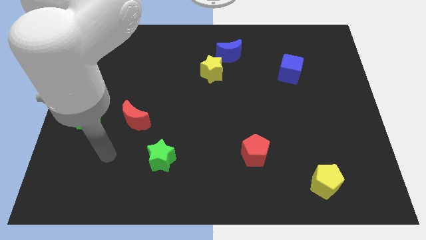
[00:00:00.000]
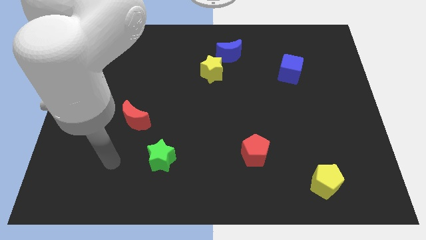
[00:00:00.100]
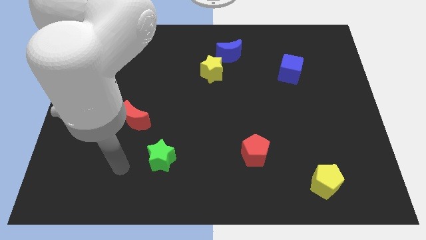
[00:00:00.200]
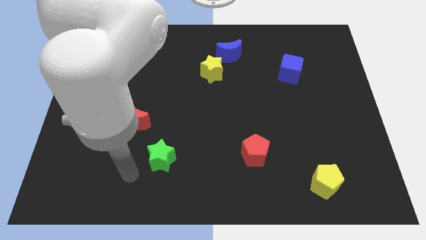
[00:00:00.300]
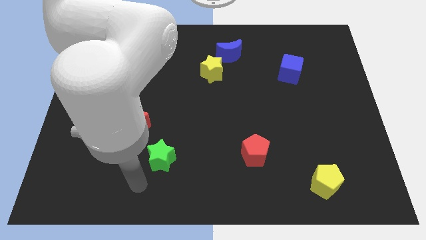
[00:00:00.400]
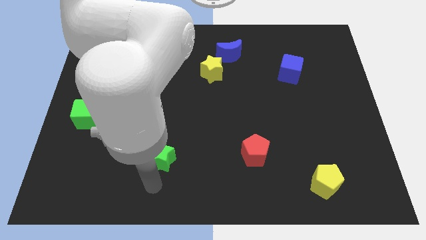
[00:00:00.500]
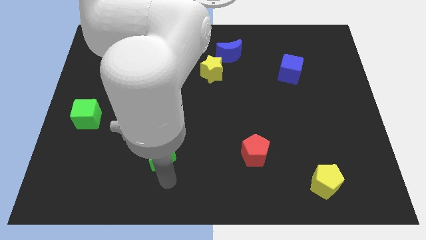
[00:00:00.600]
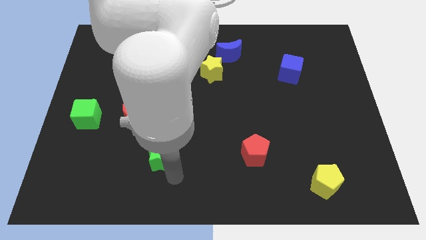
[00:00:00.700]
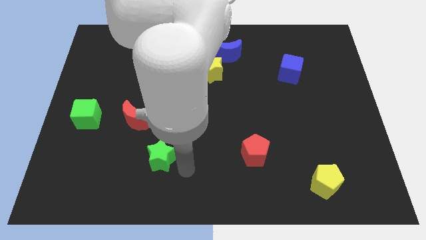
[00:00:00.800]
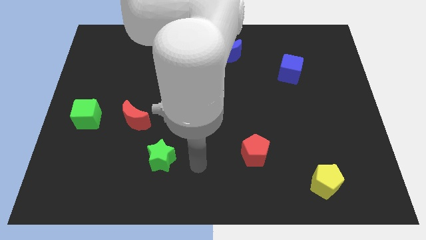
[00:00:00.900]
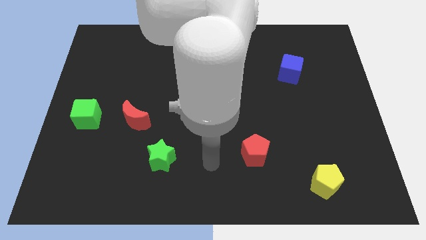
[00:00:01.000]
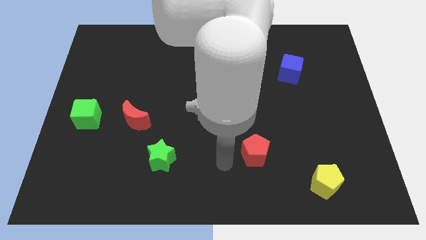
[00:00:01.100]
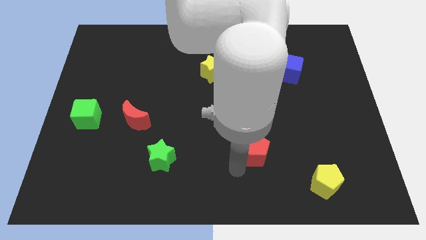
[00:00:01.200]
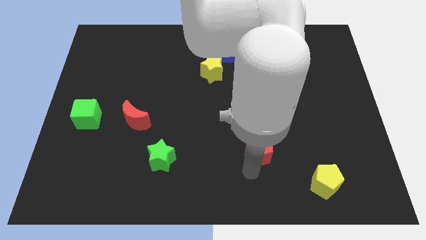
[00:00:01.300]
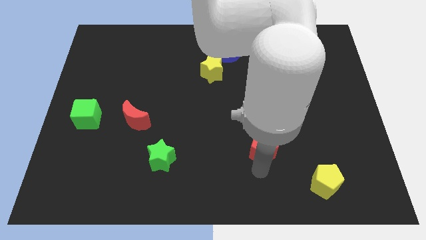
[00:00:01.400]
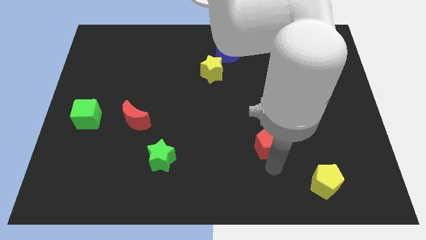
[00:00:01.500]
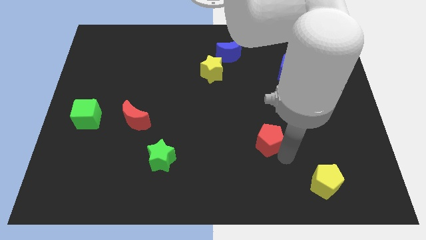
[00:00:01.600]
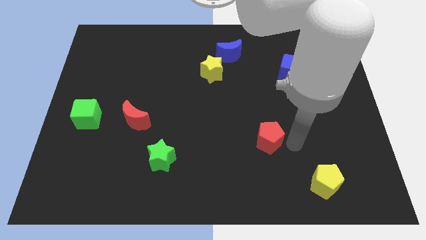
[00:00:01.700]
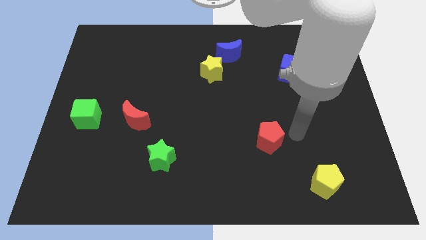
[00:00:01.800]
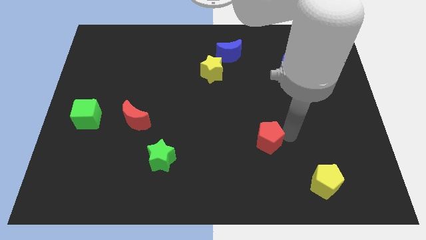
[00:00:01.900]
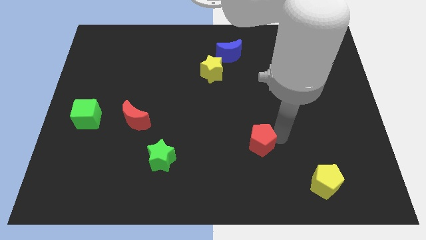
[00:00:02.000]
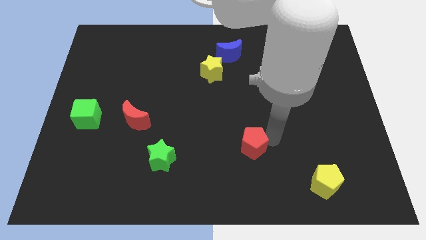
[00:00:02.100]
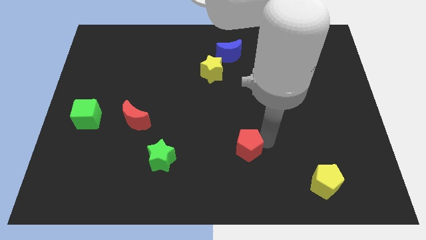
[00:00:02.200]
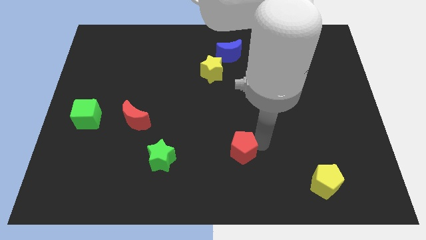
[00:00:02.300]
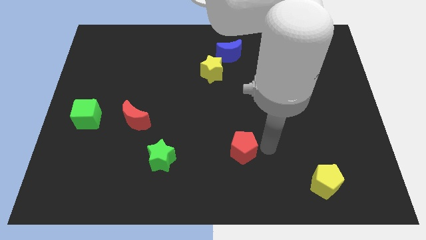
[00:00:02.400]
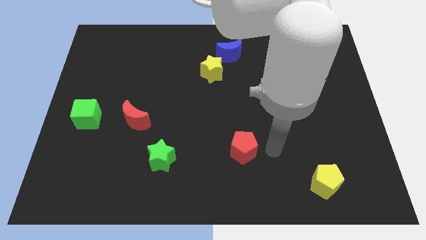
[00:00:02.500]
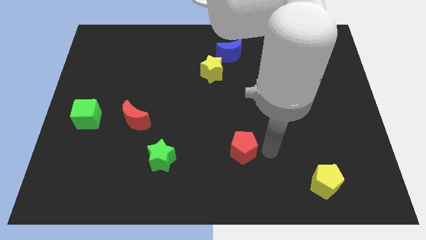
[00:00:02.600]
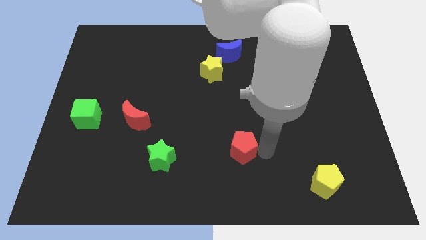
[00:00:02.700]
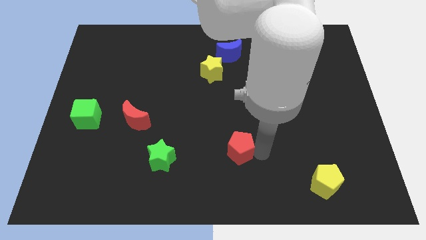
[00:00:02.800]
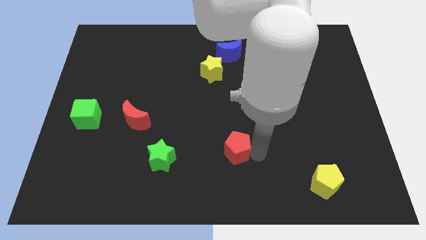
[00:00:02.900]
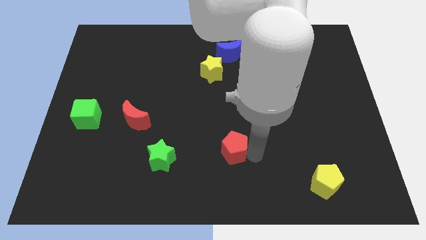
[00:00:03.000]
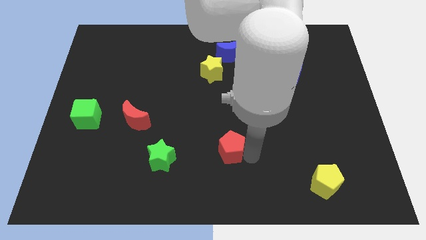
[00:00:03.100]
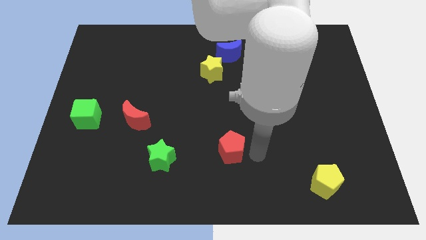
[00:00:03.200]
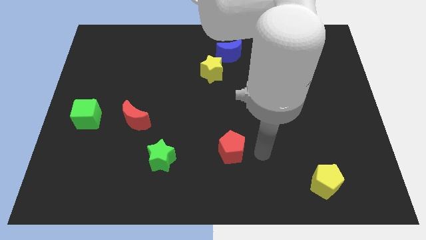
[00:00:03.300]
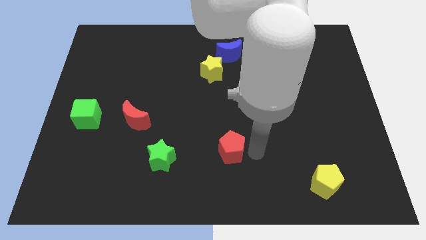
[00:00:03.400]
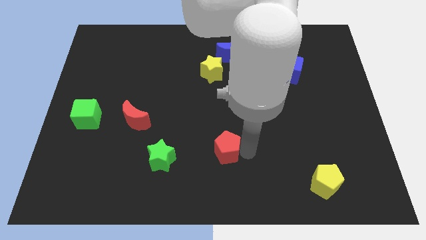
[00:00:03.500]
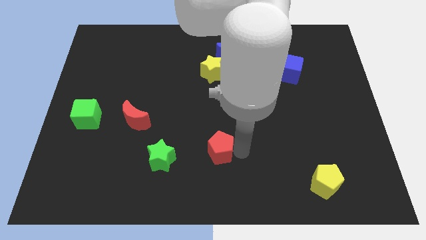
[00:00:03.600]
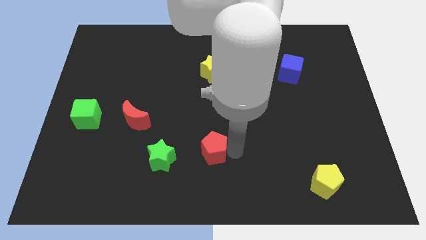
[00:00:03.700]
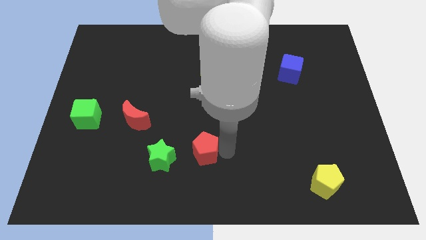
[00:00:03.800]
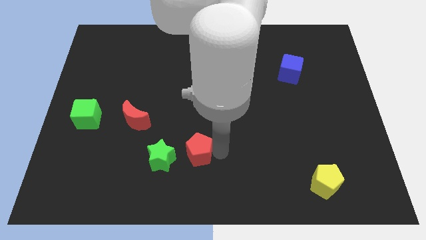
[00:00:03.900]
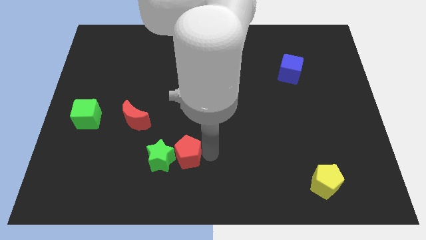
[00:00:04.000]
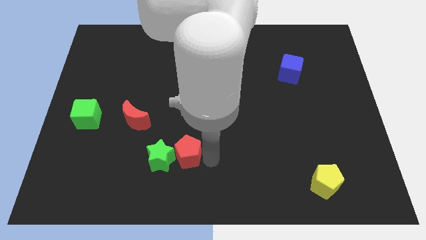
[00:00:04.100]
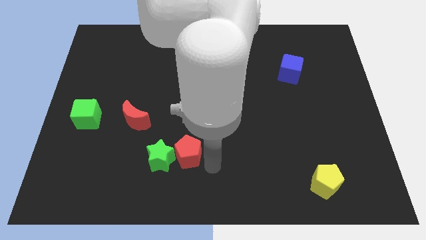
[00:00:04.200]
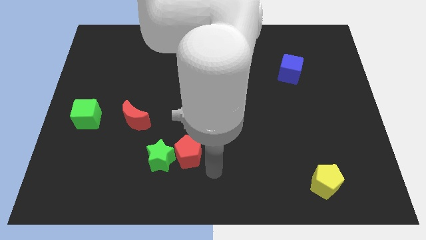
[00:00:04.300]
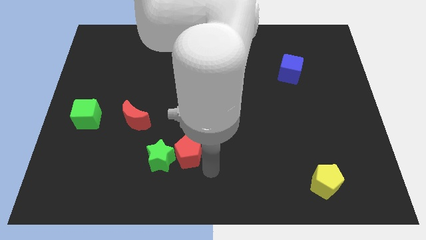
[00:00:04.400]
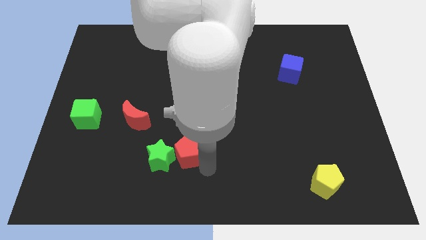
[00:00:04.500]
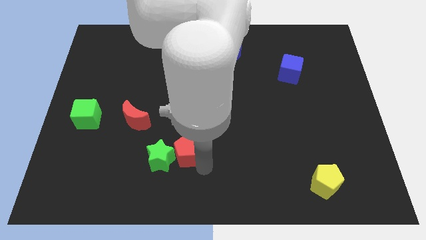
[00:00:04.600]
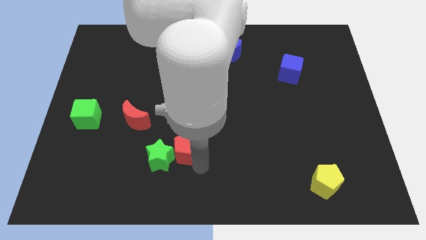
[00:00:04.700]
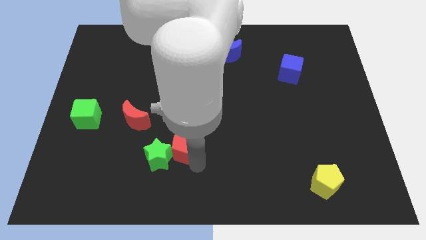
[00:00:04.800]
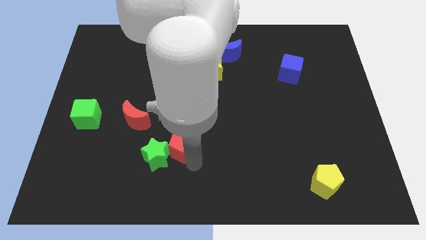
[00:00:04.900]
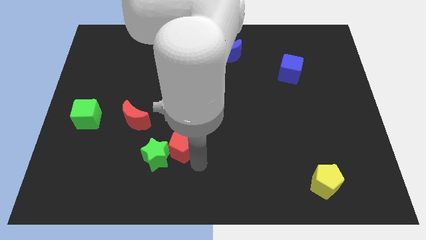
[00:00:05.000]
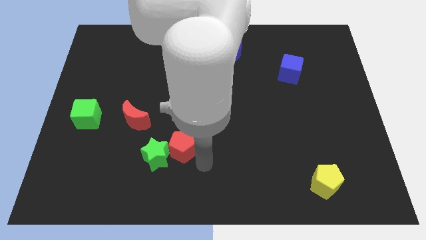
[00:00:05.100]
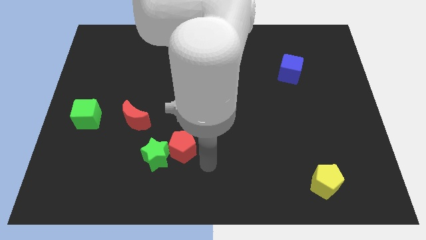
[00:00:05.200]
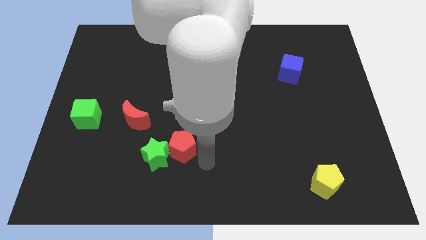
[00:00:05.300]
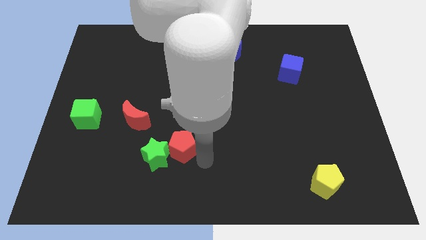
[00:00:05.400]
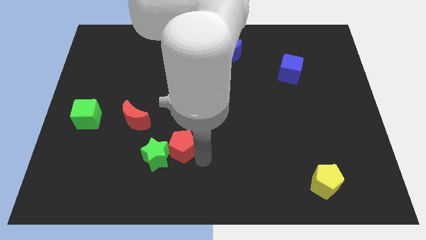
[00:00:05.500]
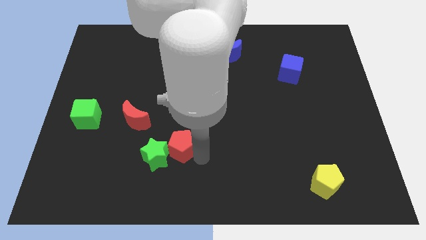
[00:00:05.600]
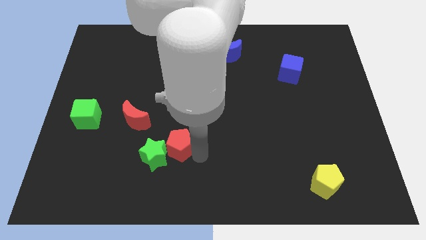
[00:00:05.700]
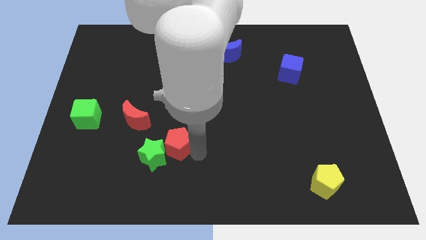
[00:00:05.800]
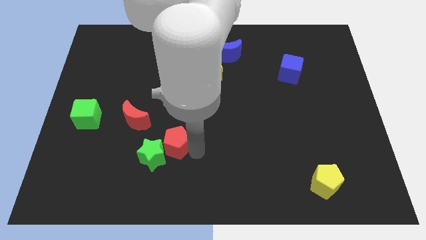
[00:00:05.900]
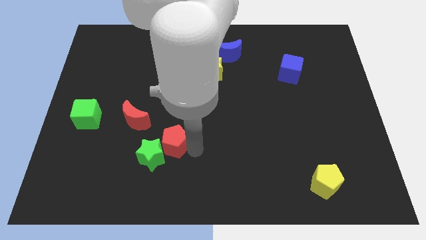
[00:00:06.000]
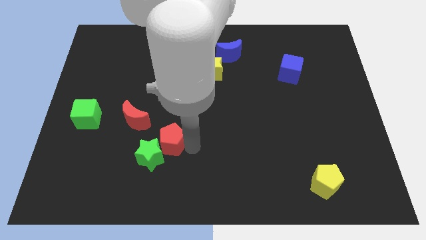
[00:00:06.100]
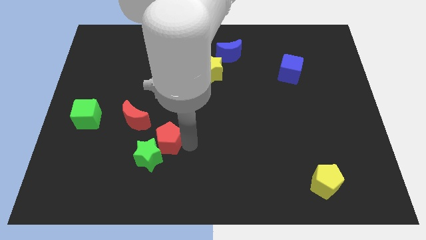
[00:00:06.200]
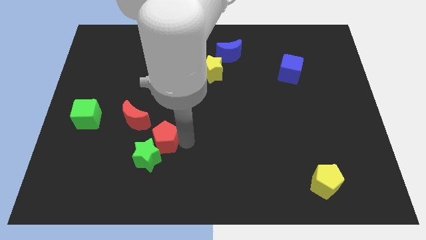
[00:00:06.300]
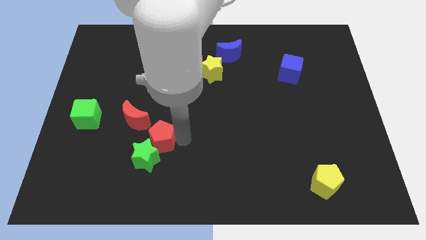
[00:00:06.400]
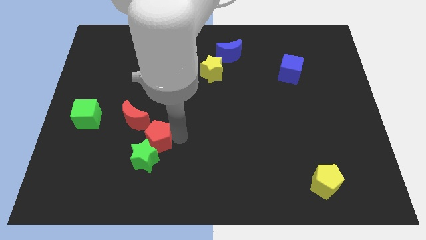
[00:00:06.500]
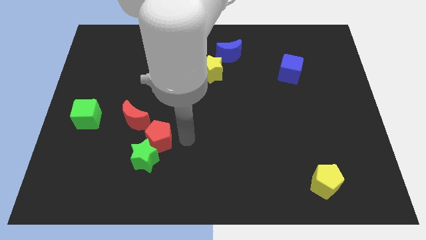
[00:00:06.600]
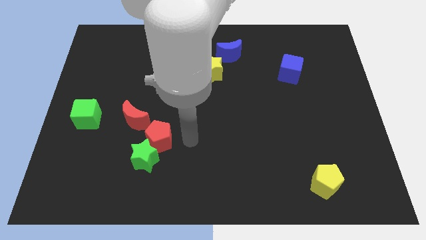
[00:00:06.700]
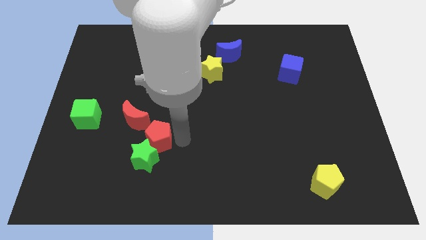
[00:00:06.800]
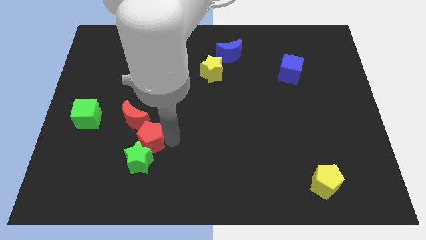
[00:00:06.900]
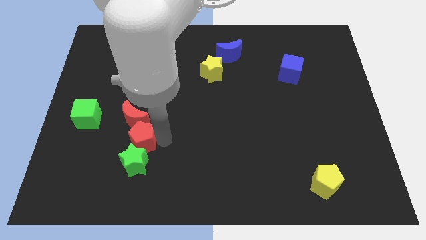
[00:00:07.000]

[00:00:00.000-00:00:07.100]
slide the red pentagon diagonally up and to the left of the green star
